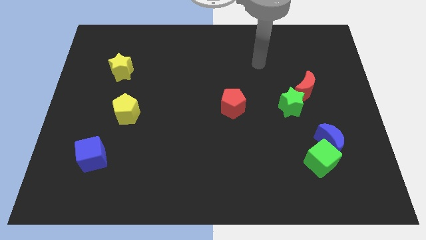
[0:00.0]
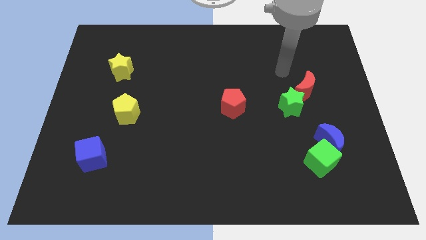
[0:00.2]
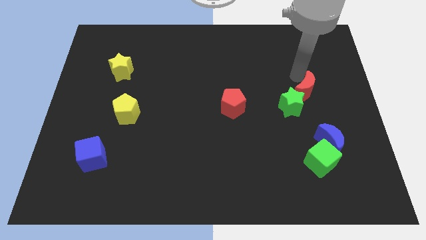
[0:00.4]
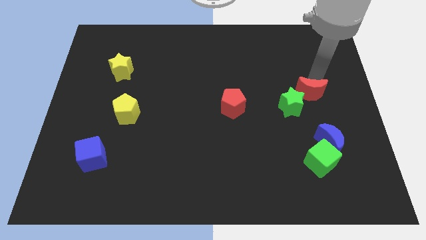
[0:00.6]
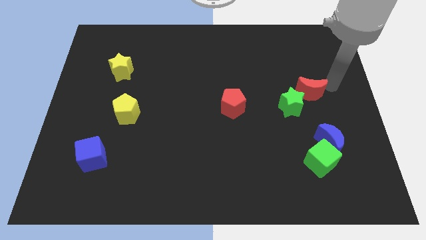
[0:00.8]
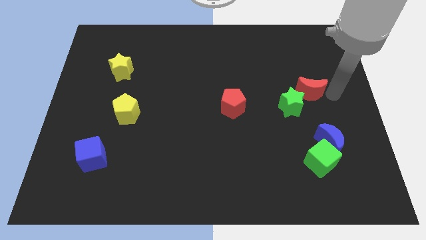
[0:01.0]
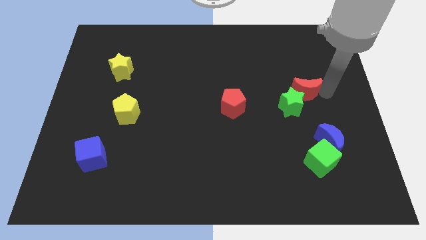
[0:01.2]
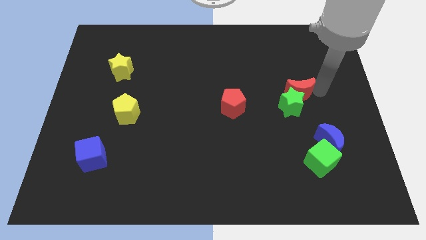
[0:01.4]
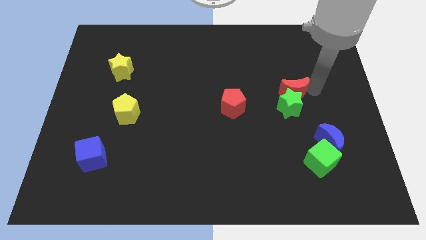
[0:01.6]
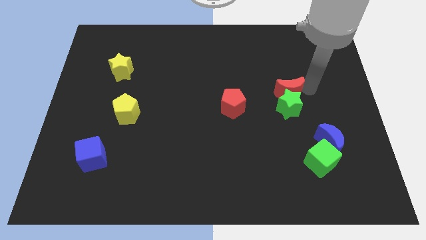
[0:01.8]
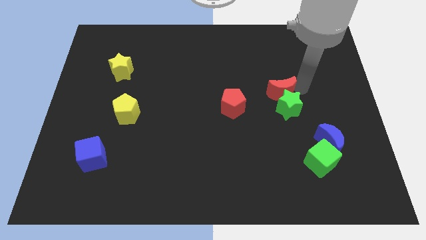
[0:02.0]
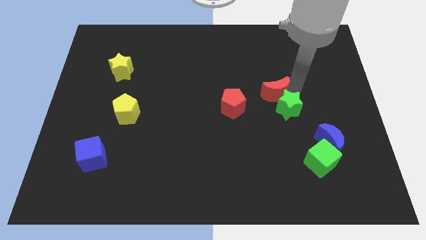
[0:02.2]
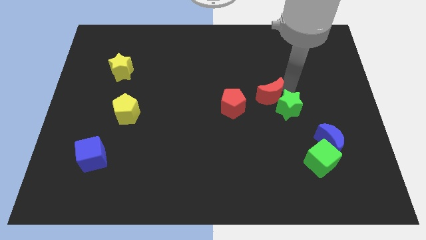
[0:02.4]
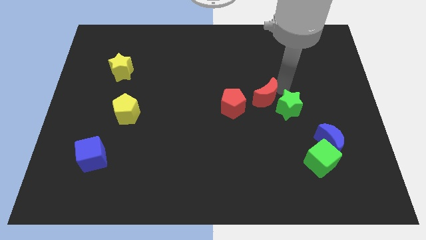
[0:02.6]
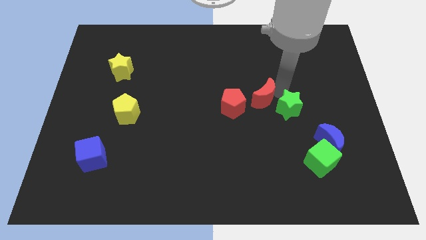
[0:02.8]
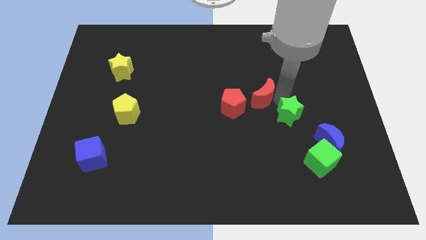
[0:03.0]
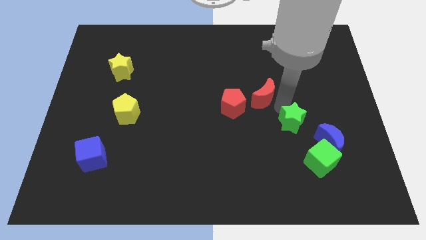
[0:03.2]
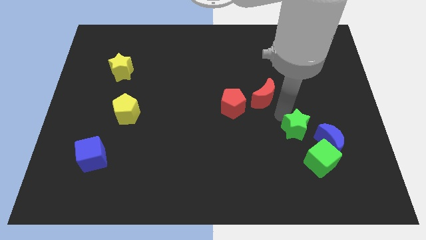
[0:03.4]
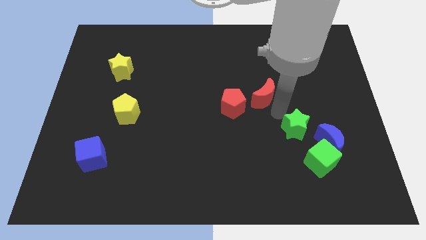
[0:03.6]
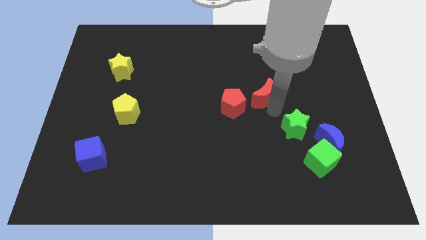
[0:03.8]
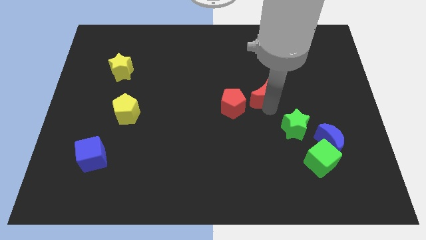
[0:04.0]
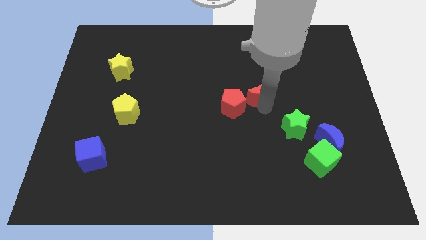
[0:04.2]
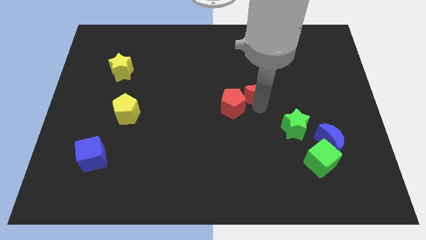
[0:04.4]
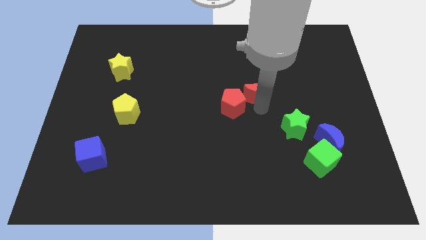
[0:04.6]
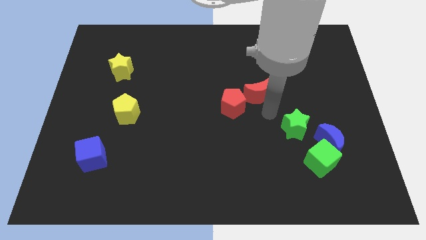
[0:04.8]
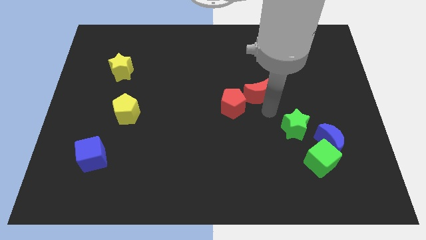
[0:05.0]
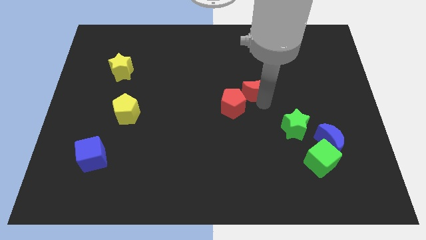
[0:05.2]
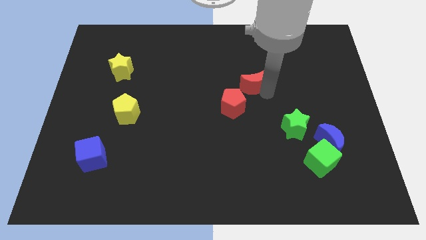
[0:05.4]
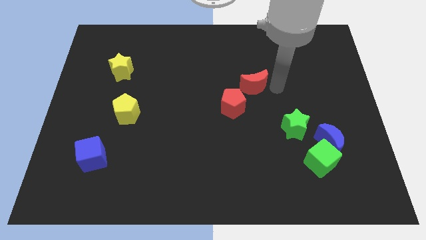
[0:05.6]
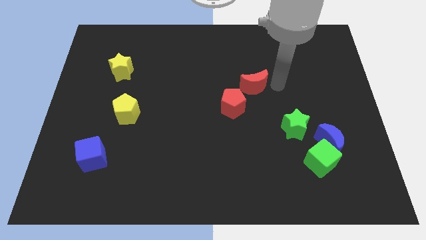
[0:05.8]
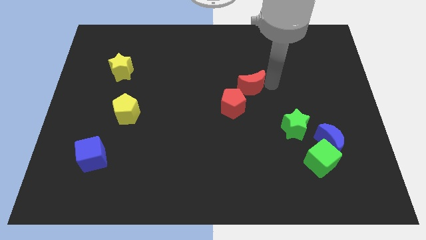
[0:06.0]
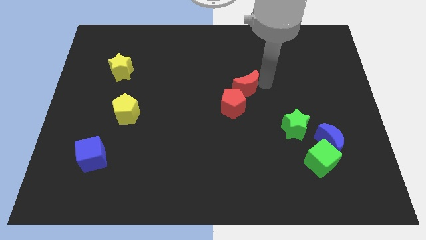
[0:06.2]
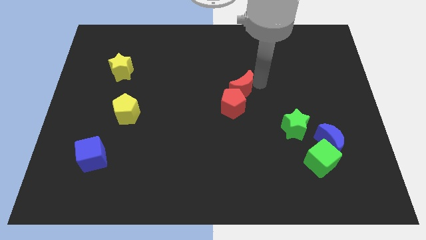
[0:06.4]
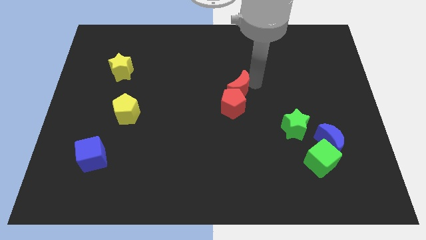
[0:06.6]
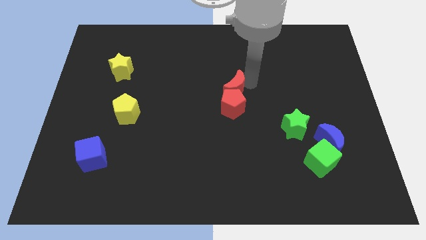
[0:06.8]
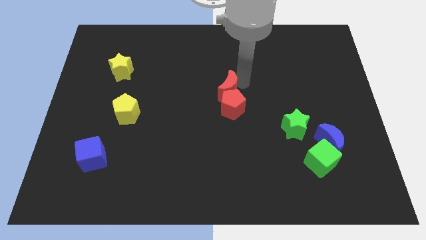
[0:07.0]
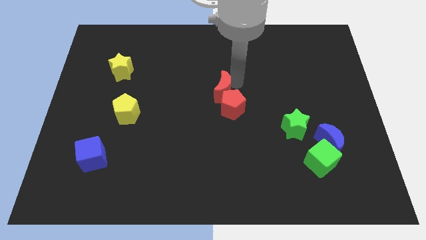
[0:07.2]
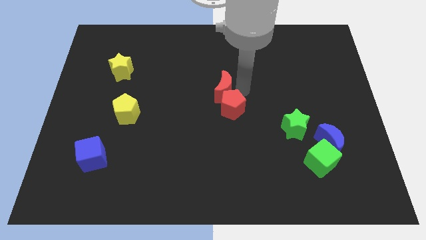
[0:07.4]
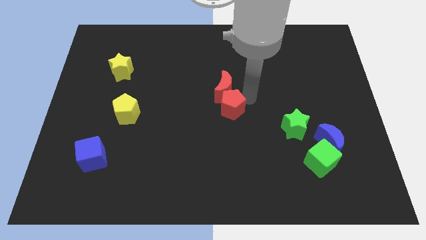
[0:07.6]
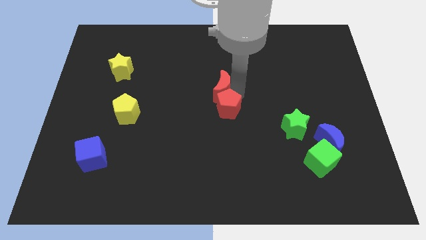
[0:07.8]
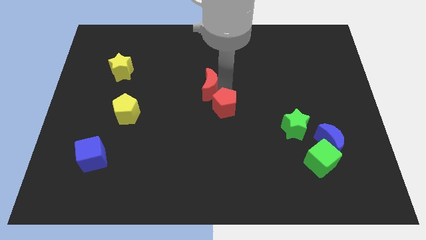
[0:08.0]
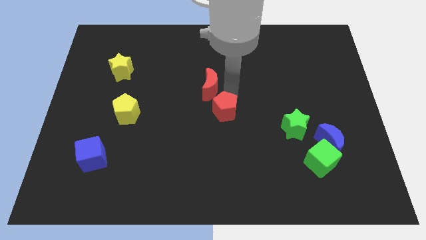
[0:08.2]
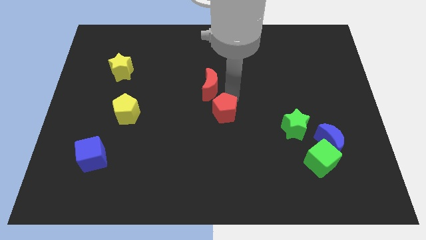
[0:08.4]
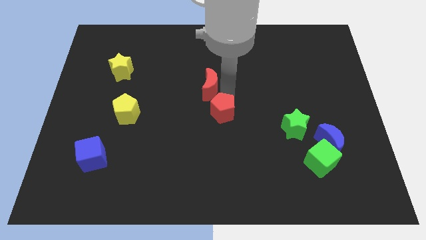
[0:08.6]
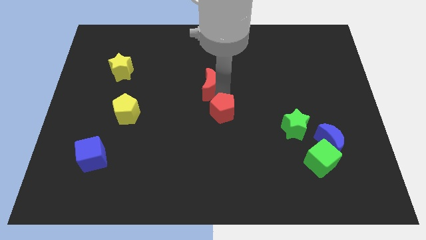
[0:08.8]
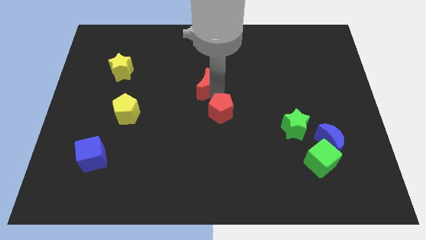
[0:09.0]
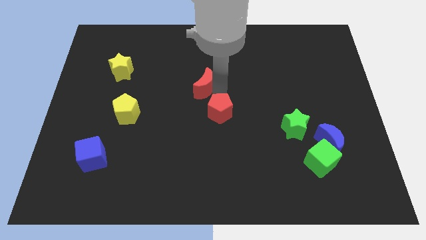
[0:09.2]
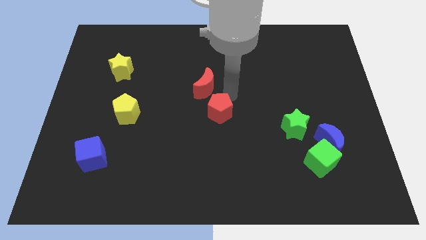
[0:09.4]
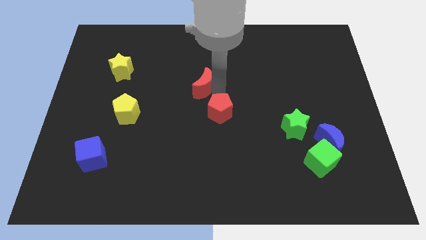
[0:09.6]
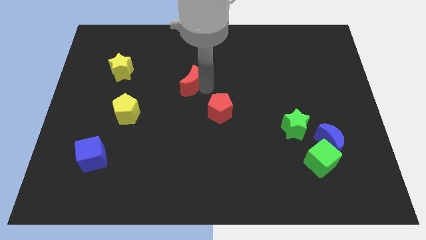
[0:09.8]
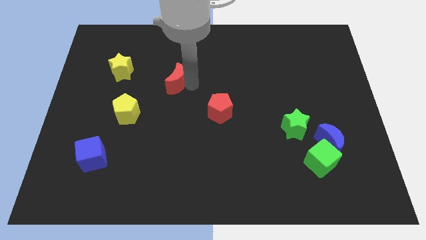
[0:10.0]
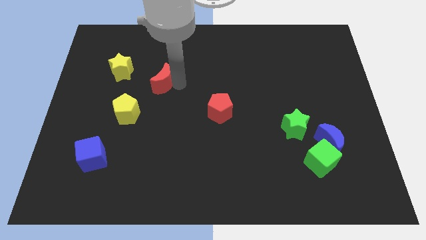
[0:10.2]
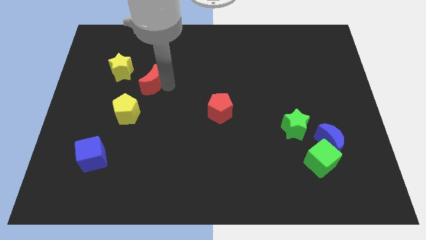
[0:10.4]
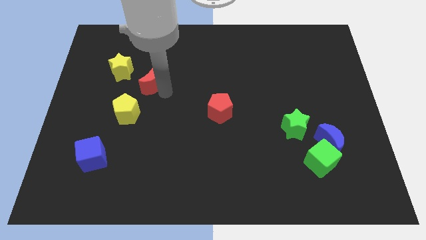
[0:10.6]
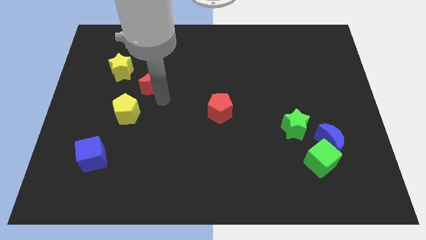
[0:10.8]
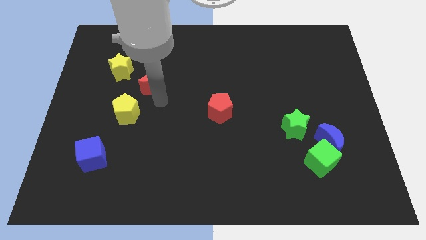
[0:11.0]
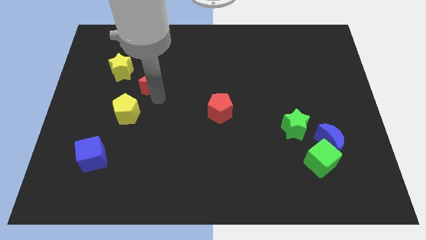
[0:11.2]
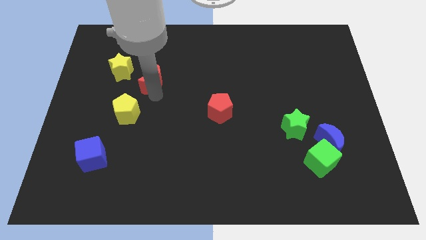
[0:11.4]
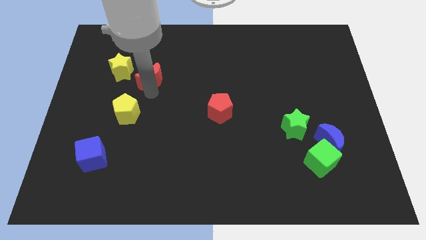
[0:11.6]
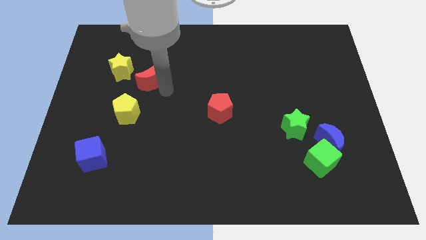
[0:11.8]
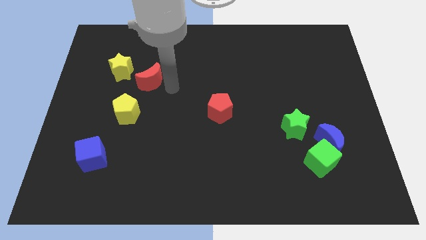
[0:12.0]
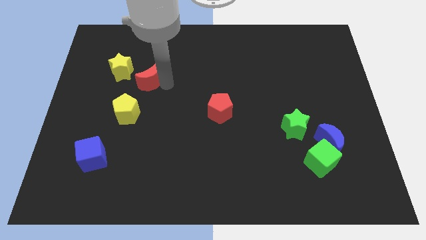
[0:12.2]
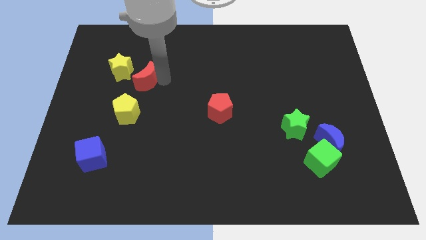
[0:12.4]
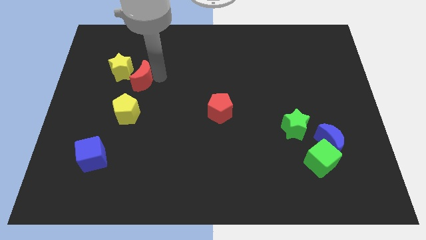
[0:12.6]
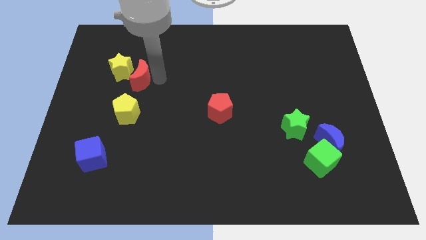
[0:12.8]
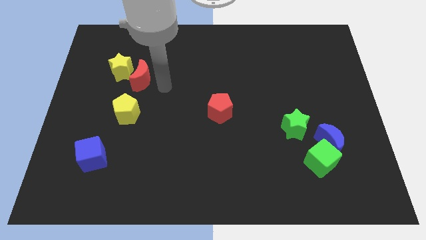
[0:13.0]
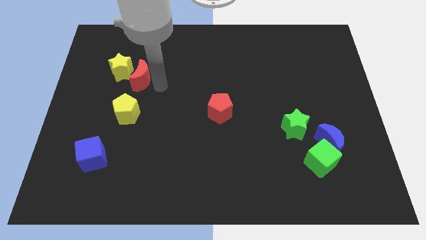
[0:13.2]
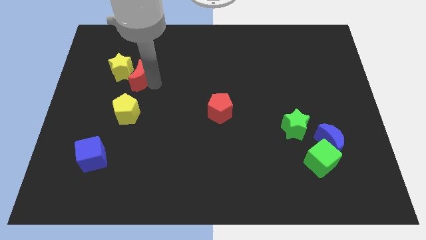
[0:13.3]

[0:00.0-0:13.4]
move the red moon next to the yellow star
